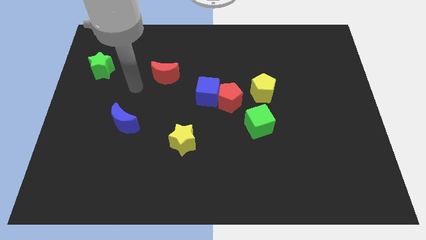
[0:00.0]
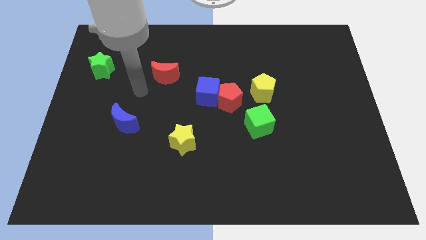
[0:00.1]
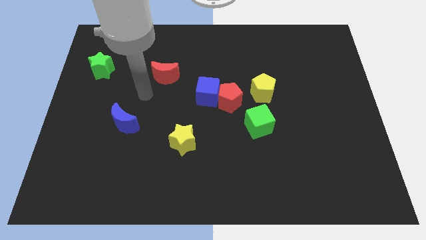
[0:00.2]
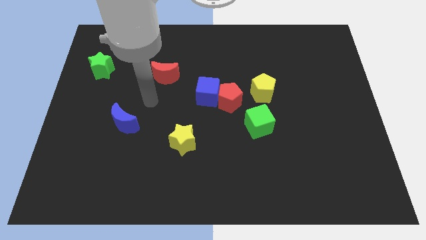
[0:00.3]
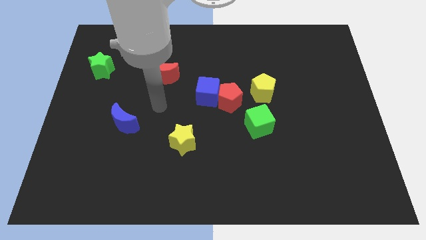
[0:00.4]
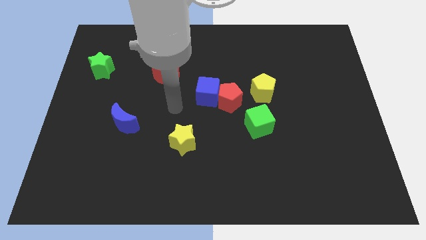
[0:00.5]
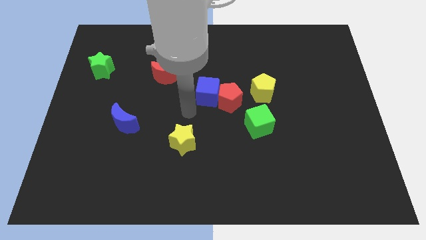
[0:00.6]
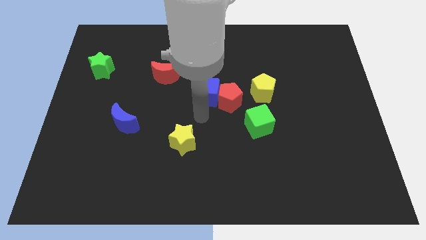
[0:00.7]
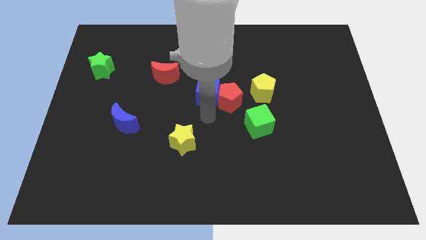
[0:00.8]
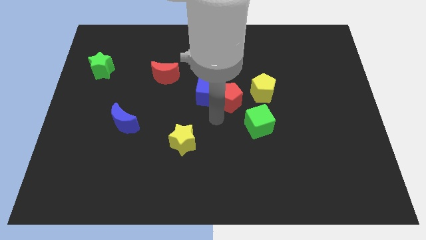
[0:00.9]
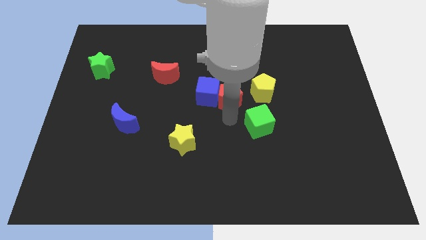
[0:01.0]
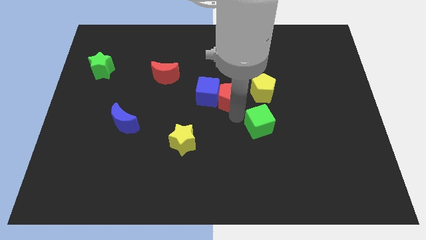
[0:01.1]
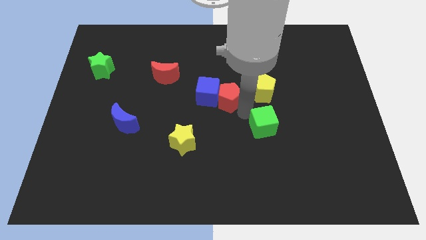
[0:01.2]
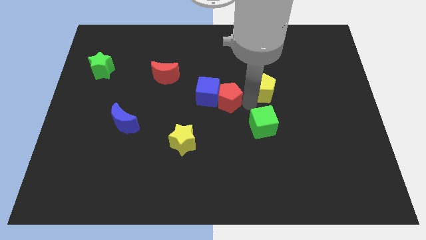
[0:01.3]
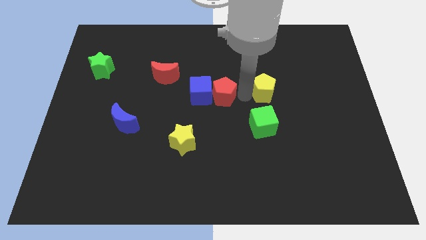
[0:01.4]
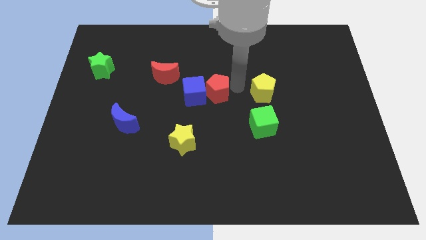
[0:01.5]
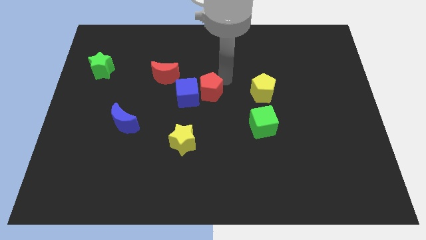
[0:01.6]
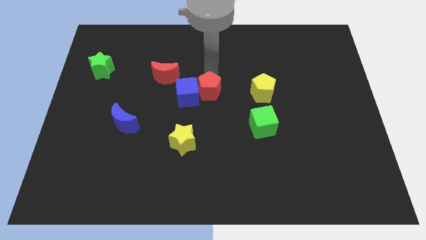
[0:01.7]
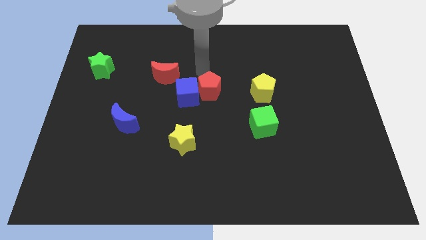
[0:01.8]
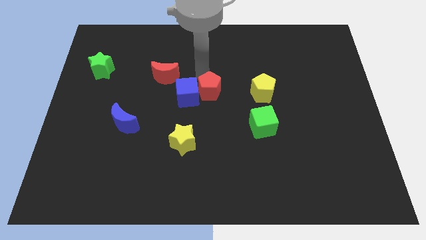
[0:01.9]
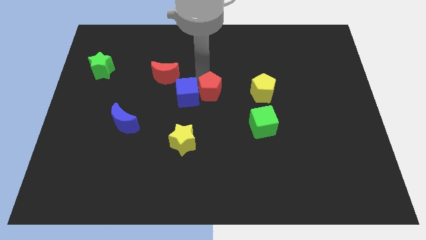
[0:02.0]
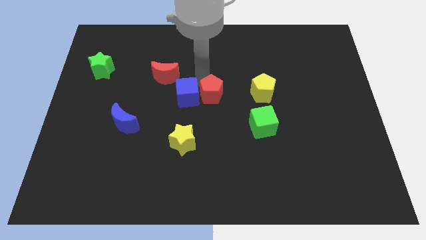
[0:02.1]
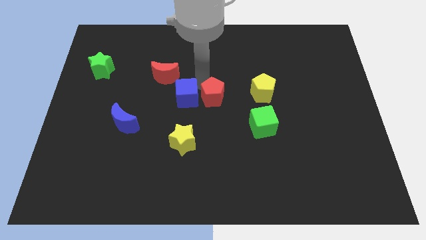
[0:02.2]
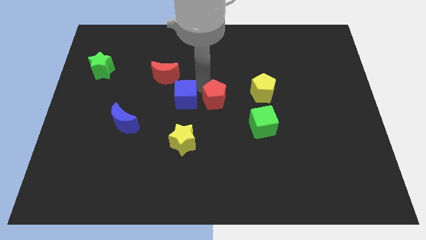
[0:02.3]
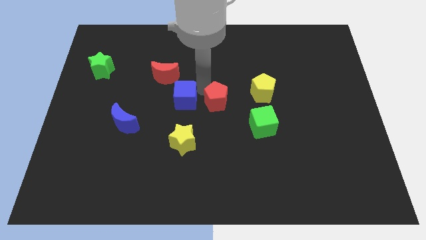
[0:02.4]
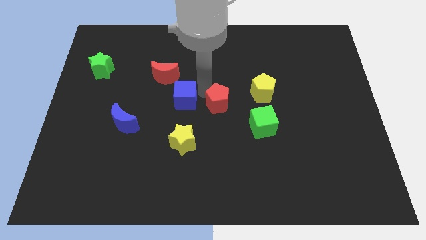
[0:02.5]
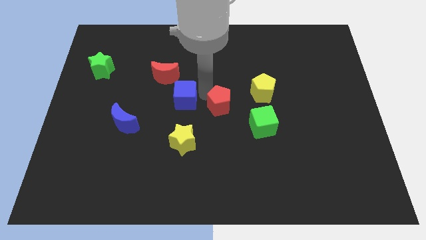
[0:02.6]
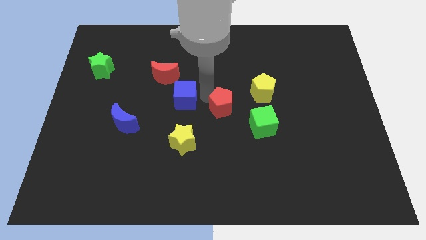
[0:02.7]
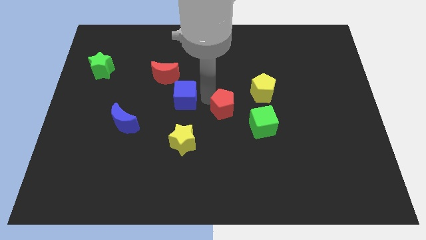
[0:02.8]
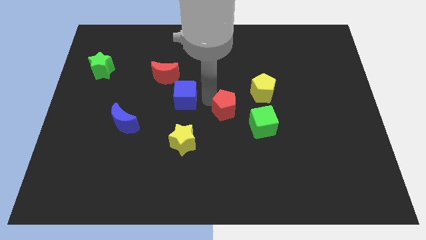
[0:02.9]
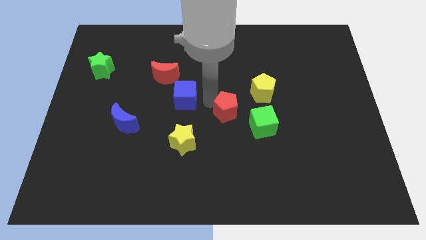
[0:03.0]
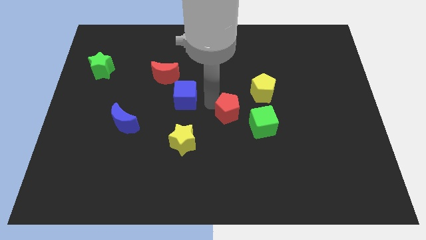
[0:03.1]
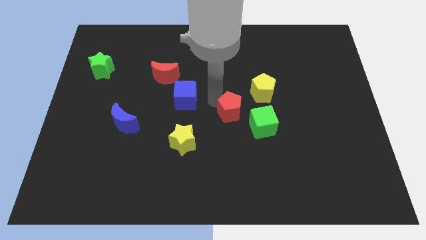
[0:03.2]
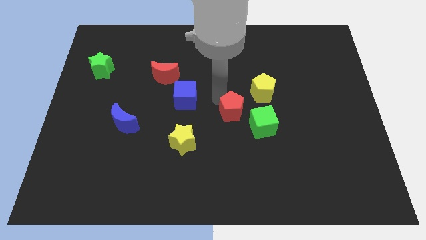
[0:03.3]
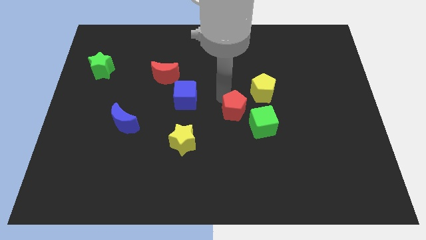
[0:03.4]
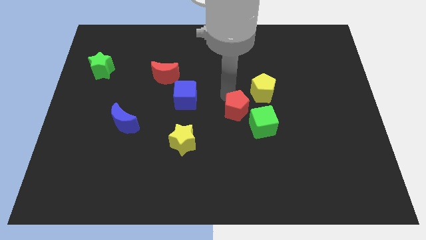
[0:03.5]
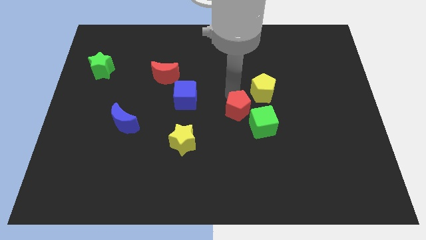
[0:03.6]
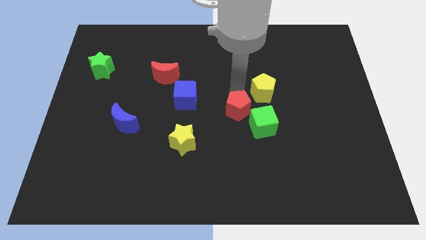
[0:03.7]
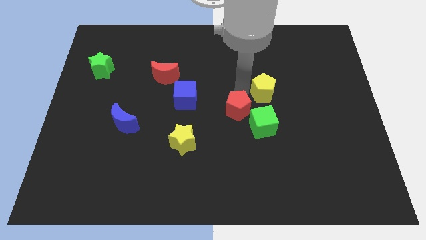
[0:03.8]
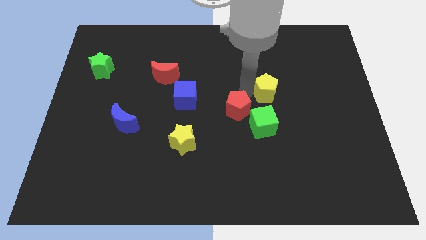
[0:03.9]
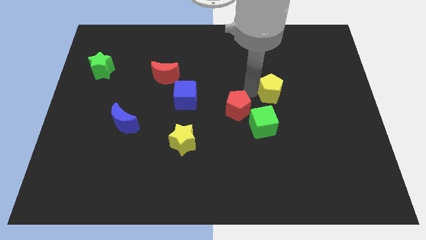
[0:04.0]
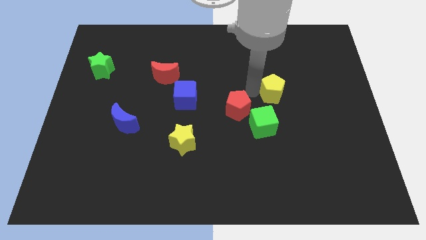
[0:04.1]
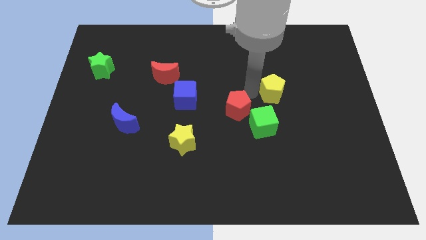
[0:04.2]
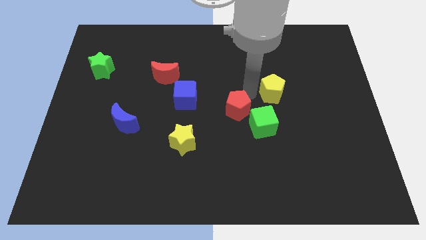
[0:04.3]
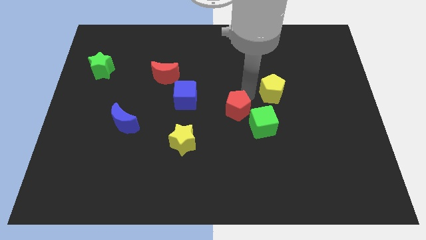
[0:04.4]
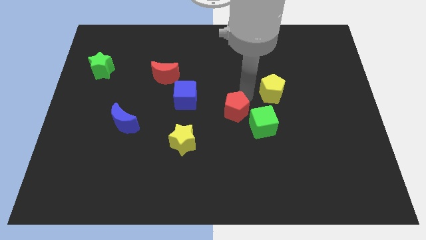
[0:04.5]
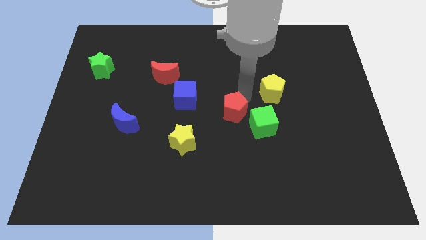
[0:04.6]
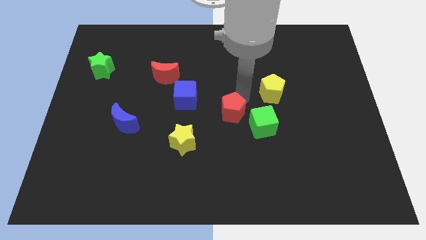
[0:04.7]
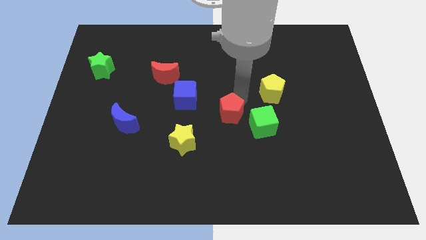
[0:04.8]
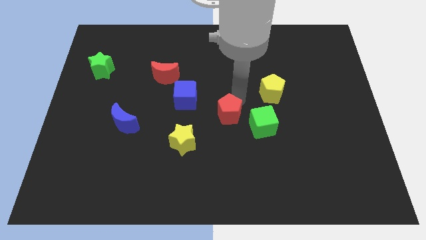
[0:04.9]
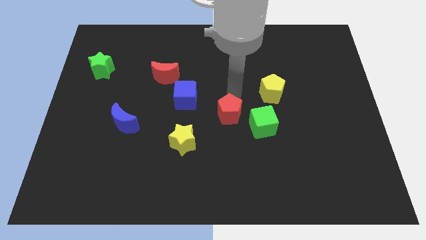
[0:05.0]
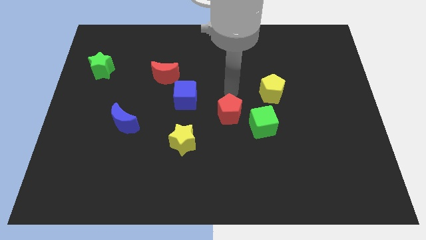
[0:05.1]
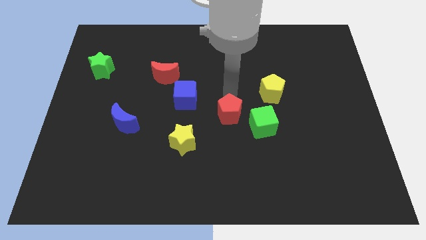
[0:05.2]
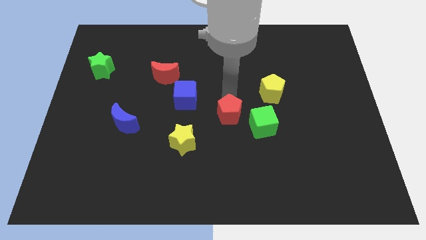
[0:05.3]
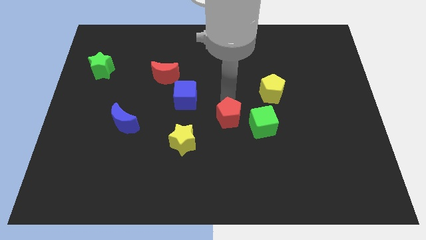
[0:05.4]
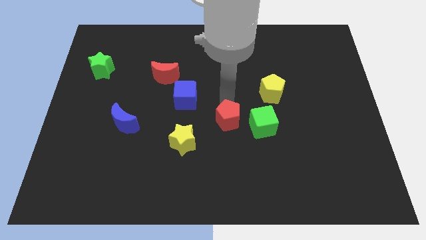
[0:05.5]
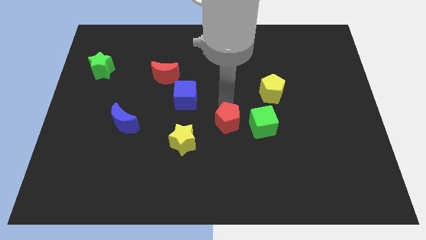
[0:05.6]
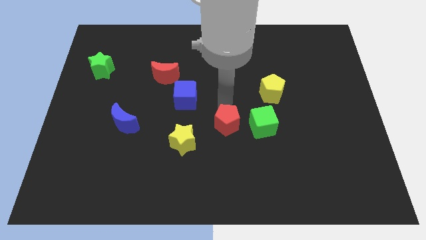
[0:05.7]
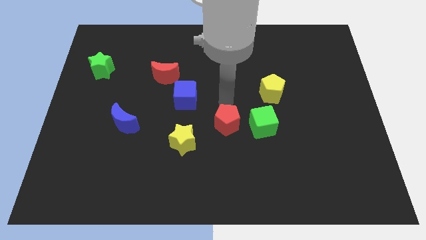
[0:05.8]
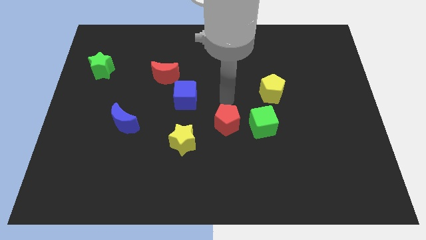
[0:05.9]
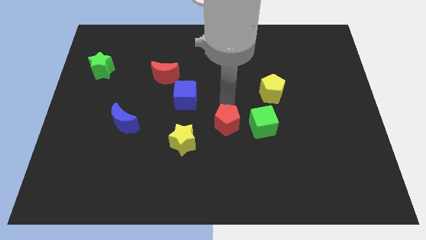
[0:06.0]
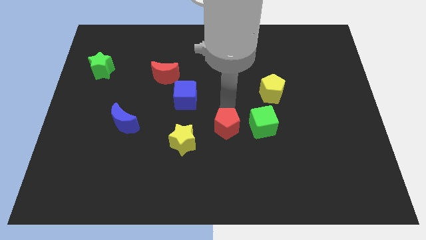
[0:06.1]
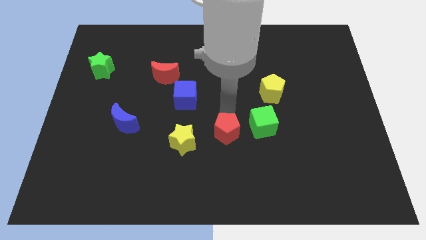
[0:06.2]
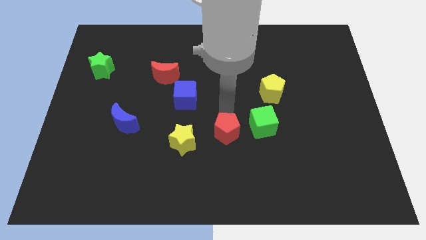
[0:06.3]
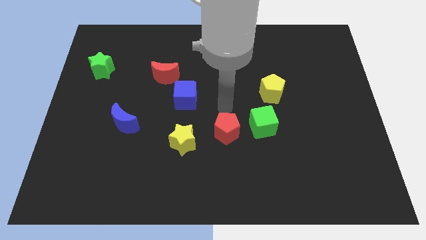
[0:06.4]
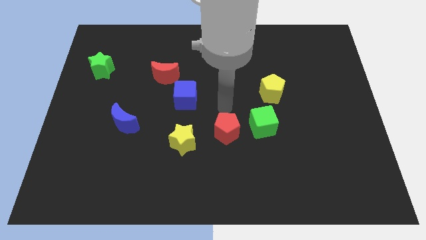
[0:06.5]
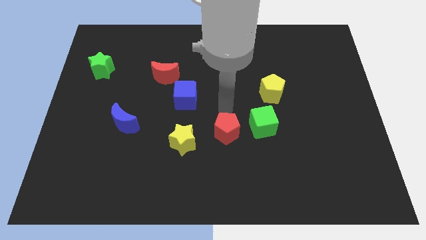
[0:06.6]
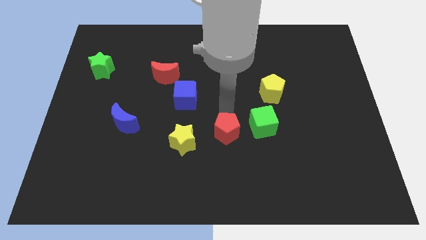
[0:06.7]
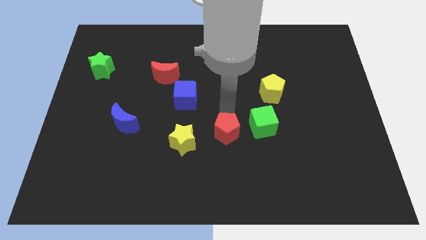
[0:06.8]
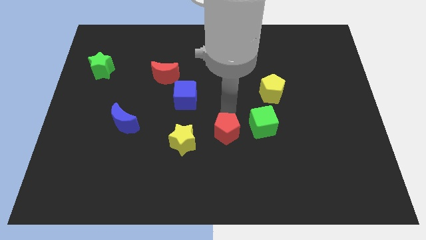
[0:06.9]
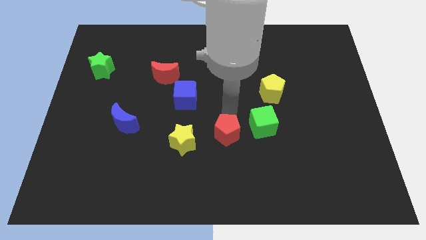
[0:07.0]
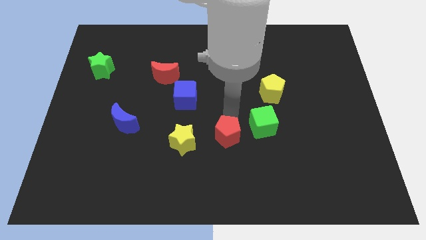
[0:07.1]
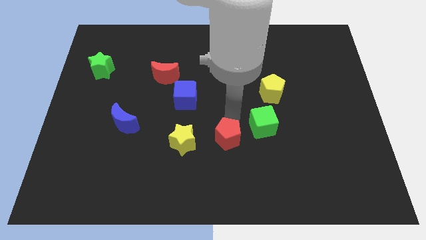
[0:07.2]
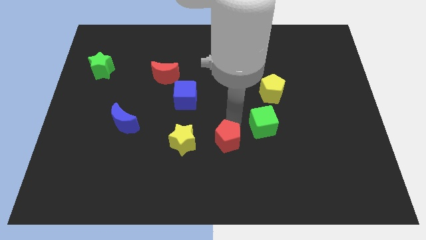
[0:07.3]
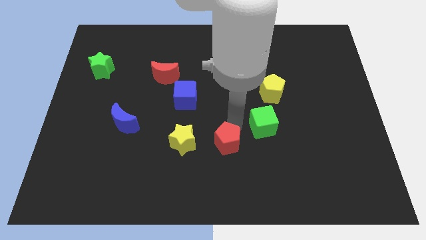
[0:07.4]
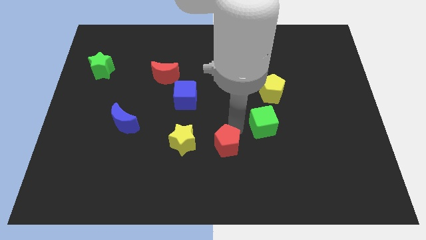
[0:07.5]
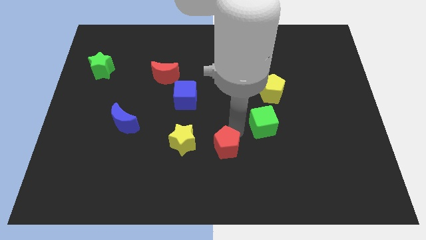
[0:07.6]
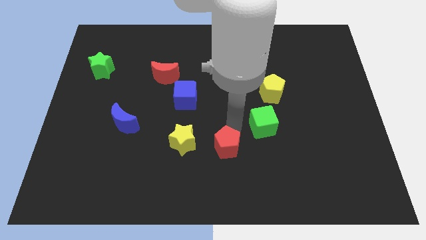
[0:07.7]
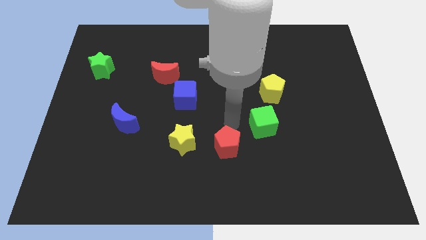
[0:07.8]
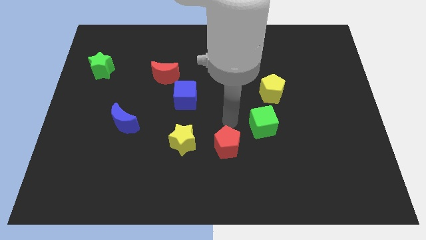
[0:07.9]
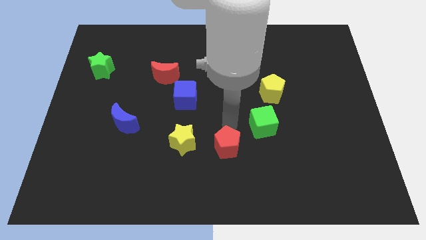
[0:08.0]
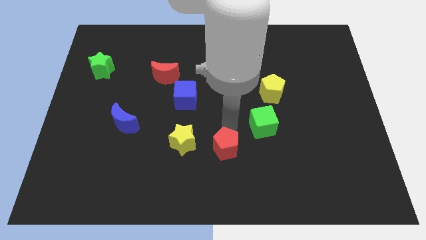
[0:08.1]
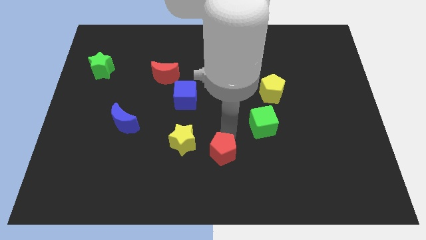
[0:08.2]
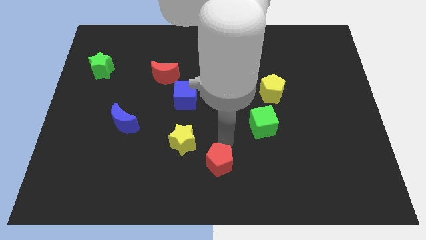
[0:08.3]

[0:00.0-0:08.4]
slide the red pentagon to the bottom side
